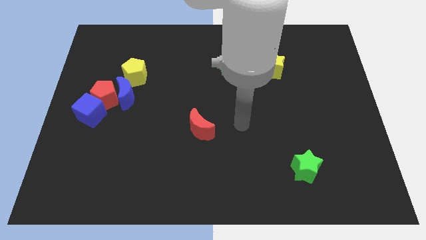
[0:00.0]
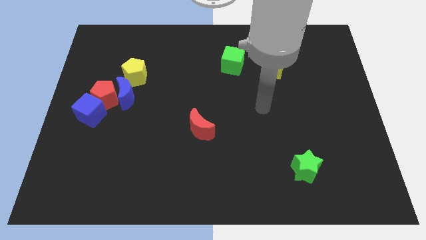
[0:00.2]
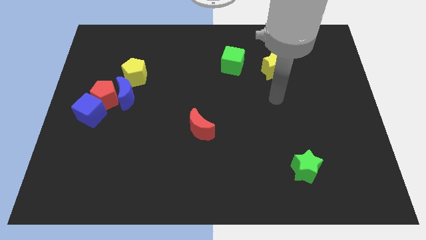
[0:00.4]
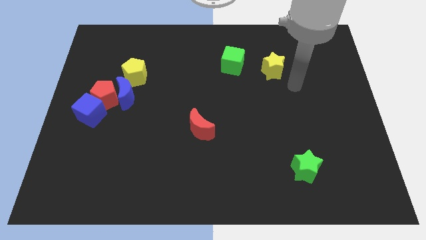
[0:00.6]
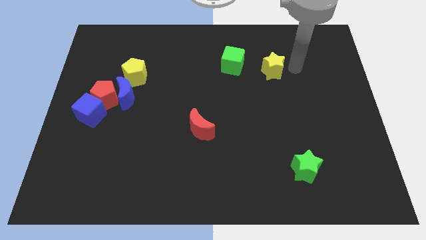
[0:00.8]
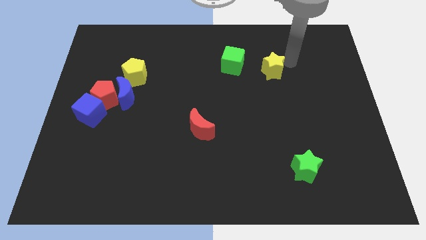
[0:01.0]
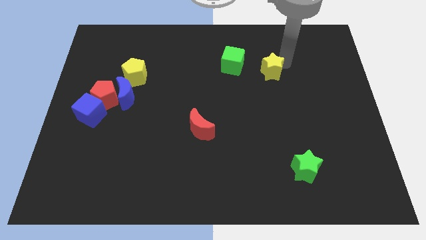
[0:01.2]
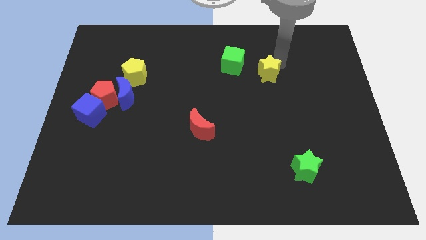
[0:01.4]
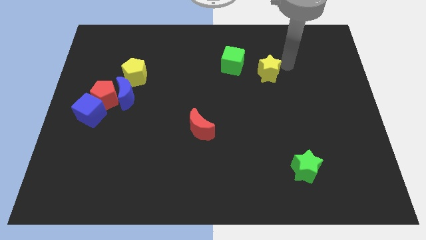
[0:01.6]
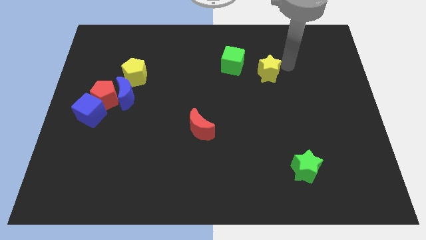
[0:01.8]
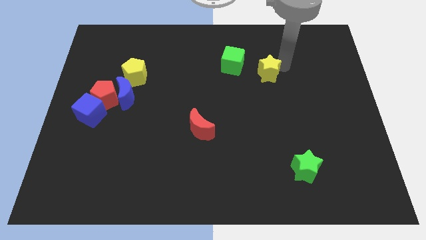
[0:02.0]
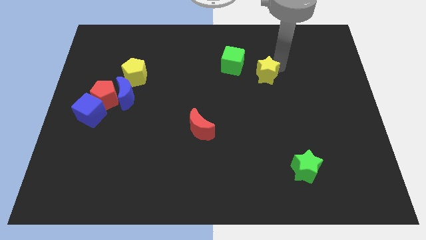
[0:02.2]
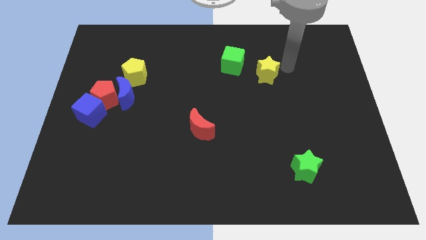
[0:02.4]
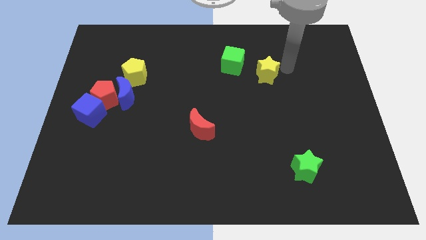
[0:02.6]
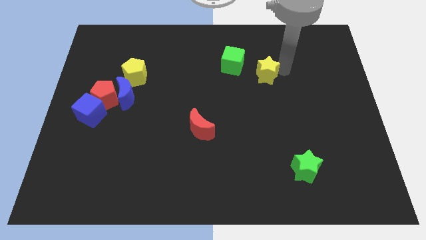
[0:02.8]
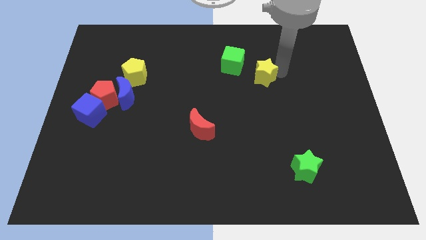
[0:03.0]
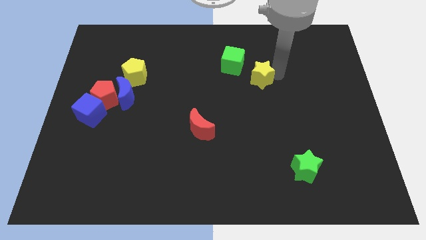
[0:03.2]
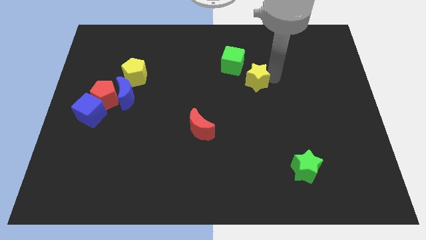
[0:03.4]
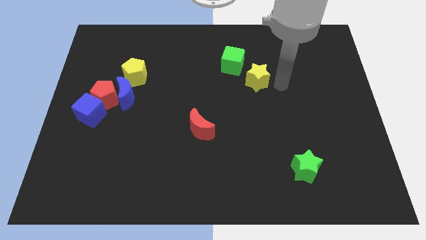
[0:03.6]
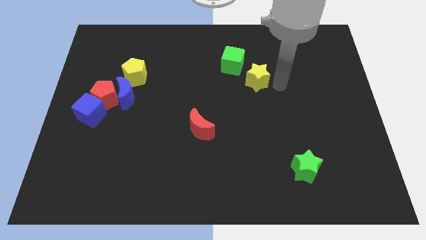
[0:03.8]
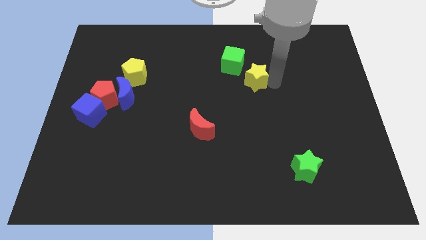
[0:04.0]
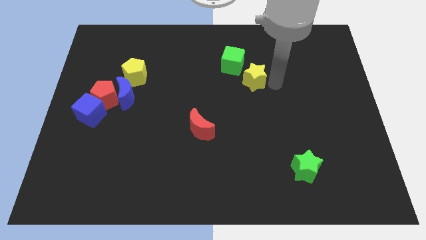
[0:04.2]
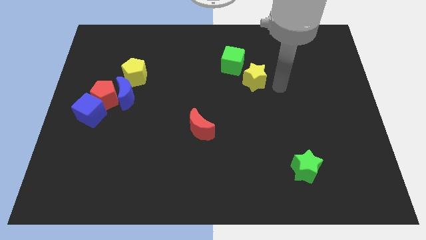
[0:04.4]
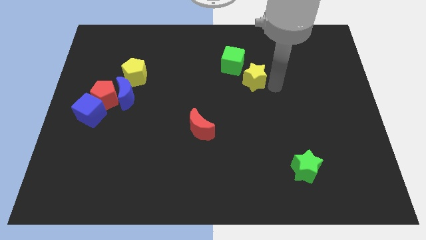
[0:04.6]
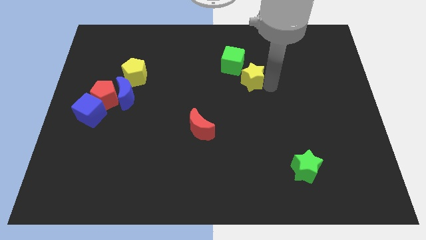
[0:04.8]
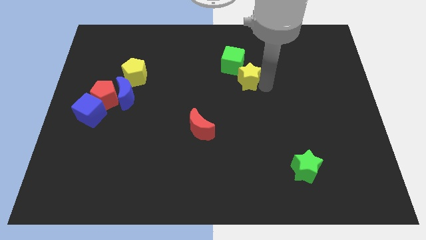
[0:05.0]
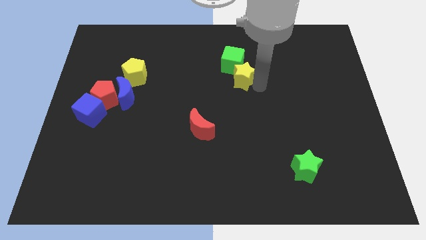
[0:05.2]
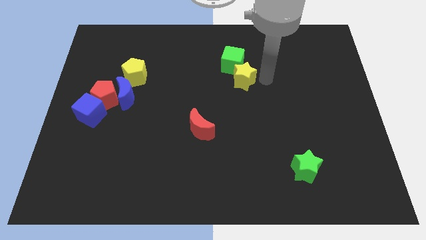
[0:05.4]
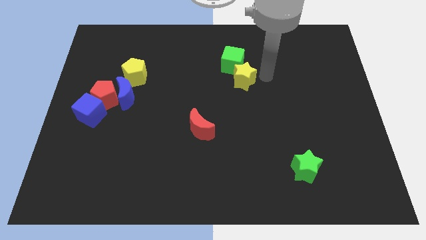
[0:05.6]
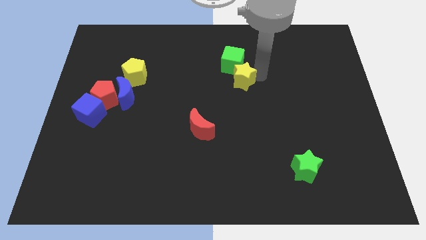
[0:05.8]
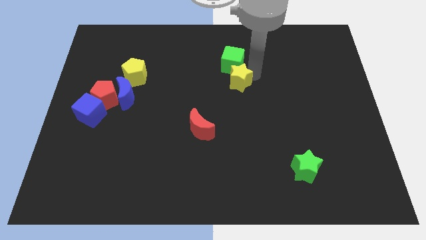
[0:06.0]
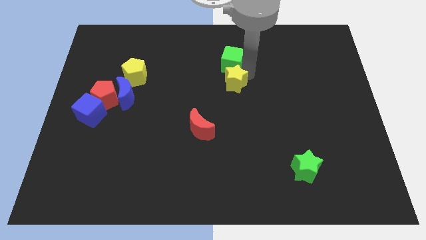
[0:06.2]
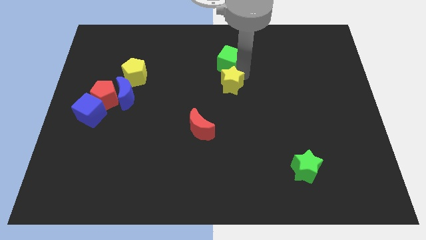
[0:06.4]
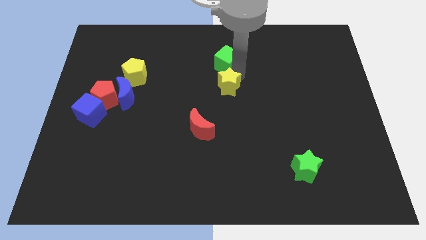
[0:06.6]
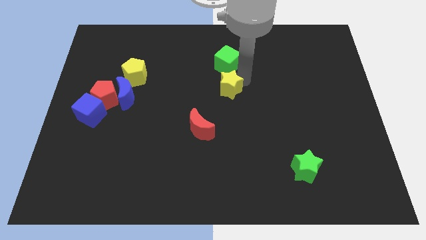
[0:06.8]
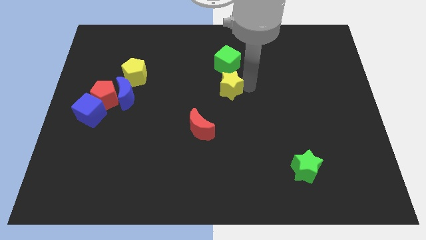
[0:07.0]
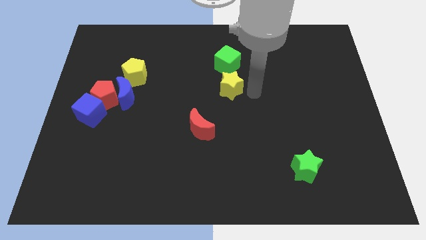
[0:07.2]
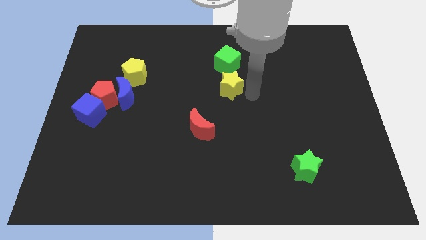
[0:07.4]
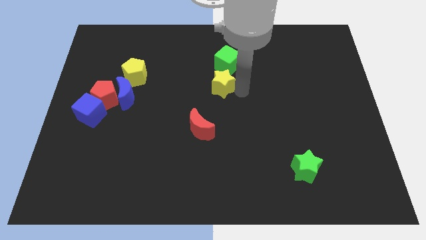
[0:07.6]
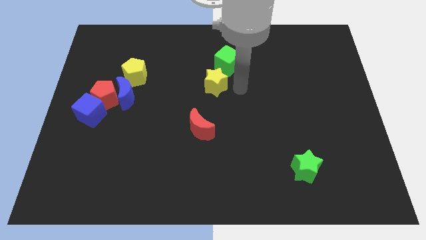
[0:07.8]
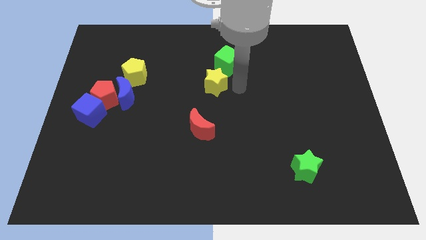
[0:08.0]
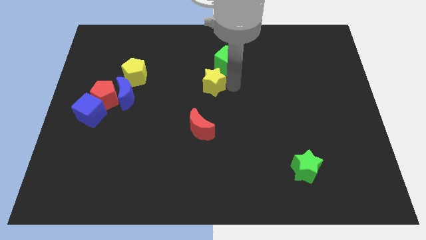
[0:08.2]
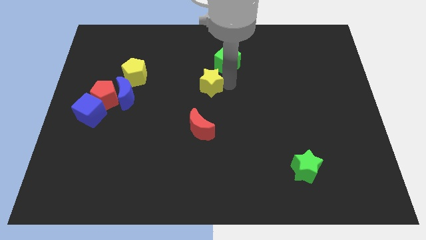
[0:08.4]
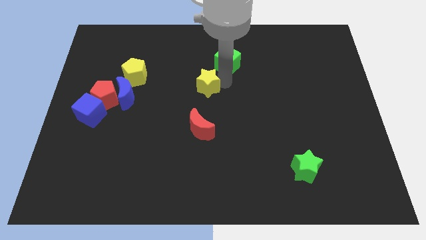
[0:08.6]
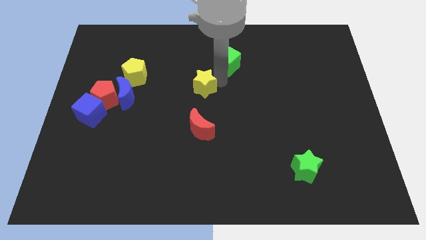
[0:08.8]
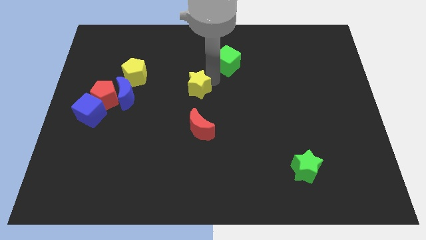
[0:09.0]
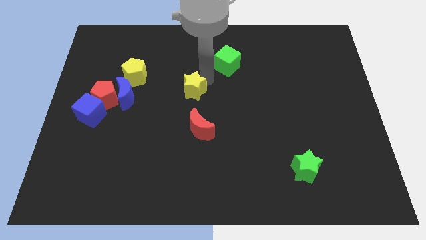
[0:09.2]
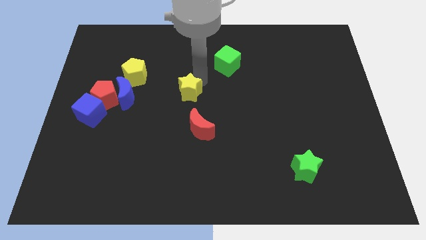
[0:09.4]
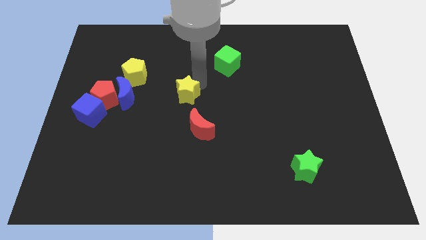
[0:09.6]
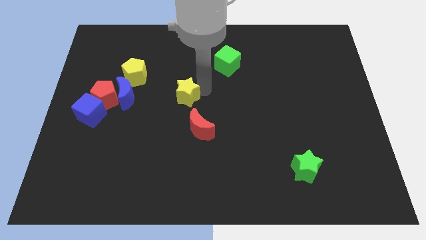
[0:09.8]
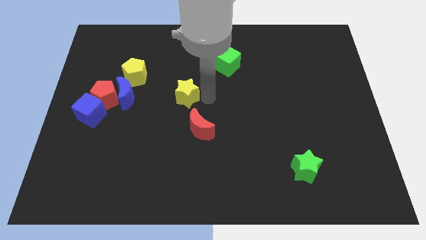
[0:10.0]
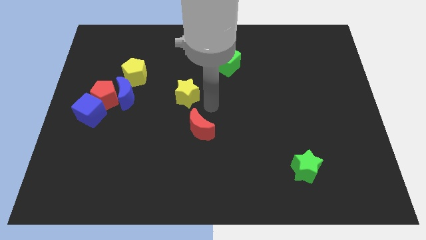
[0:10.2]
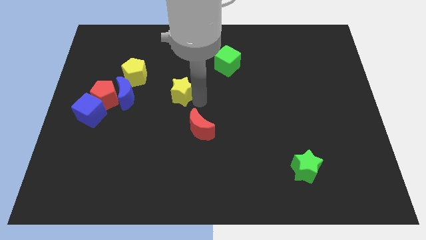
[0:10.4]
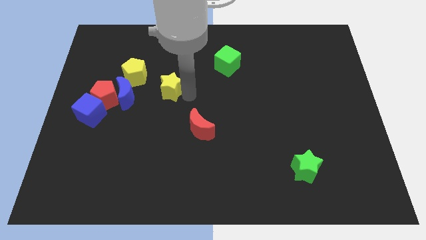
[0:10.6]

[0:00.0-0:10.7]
put the yellow star just right of the red pentagon
